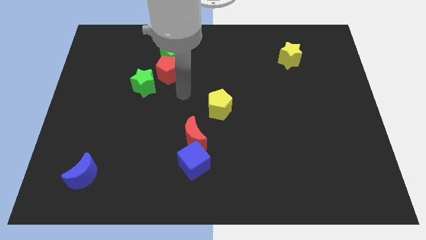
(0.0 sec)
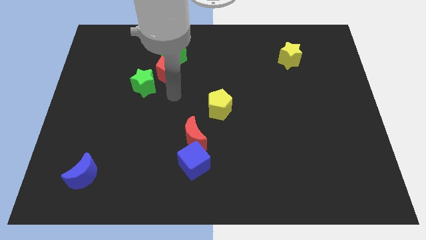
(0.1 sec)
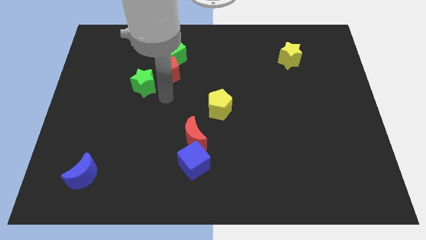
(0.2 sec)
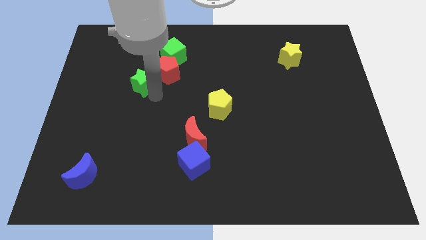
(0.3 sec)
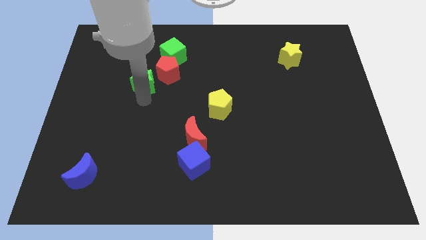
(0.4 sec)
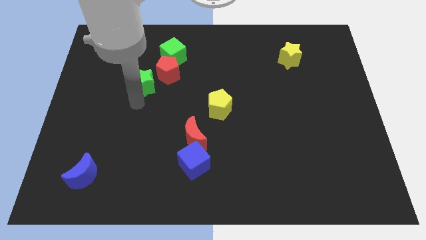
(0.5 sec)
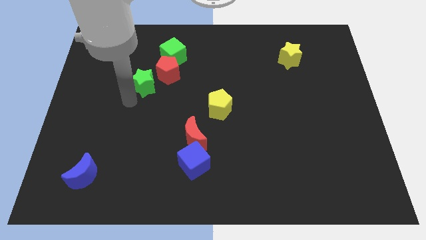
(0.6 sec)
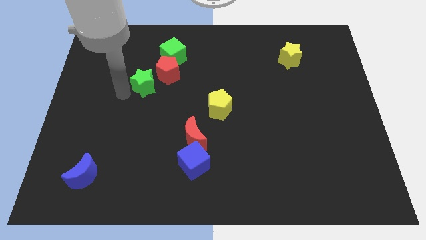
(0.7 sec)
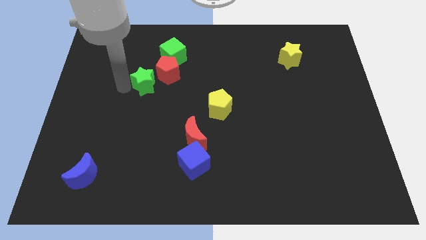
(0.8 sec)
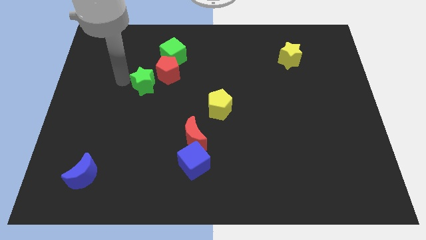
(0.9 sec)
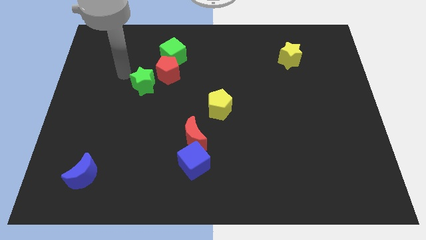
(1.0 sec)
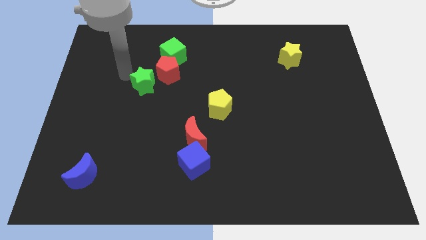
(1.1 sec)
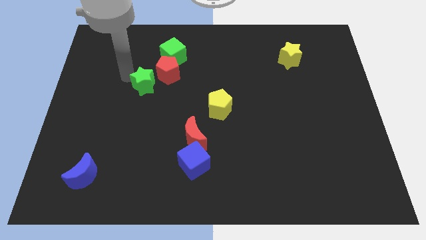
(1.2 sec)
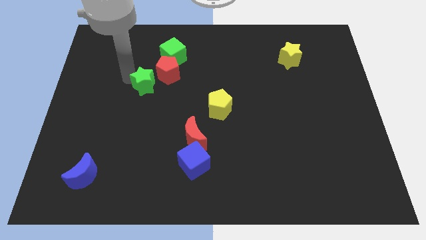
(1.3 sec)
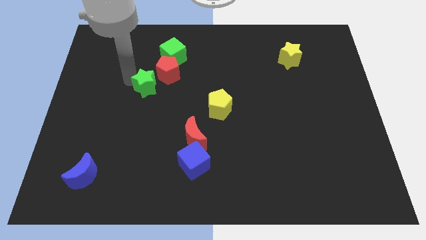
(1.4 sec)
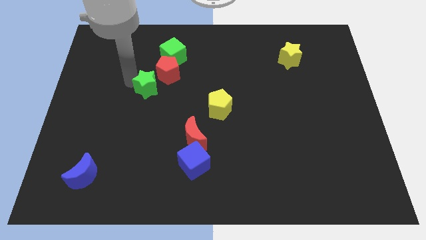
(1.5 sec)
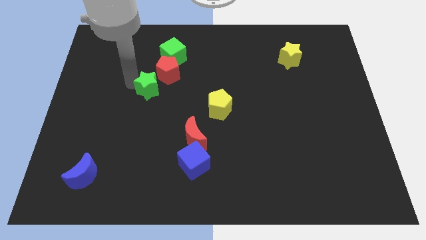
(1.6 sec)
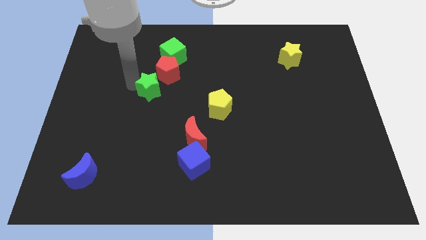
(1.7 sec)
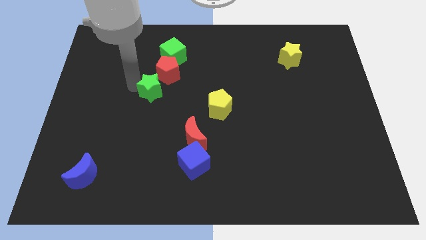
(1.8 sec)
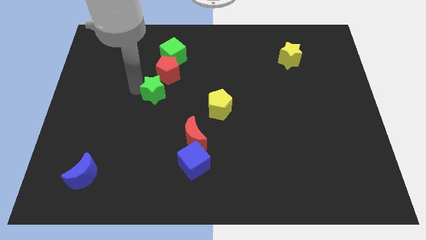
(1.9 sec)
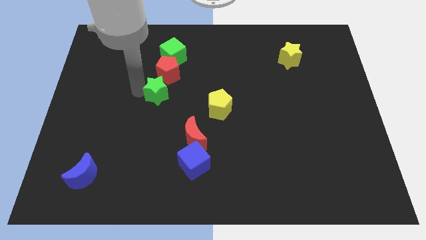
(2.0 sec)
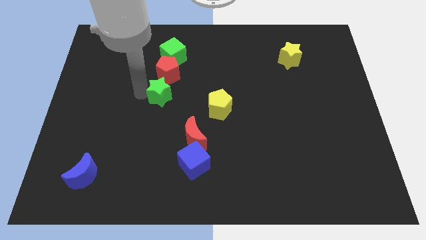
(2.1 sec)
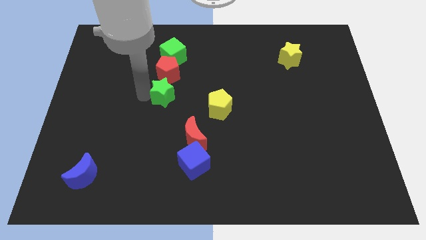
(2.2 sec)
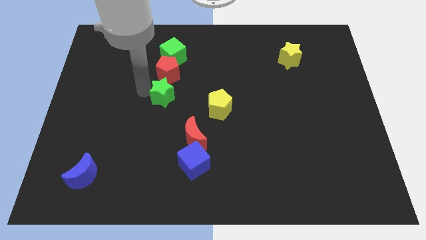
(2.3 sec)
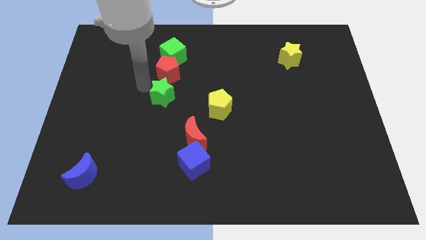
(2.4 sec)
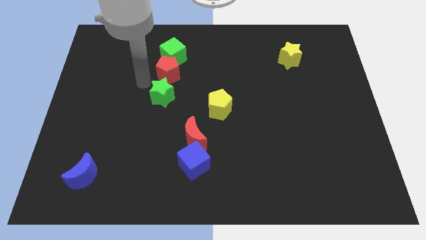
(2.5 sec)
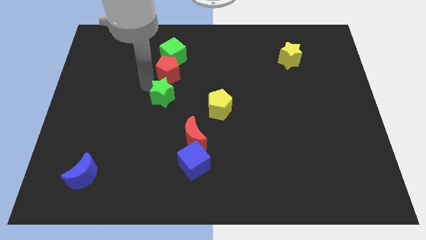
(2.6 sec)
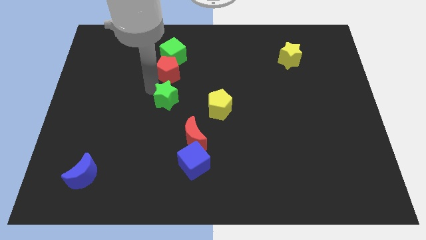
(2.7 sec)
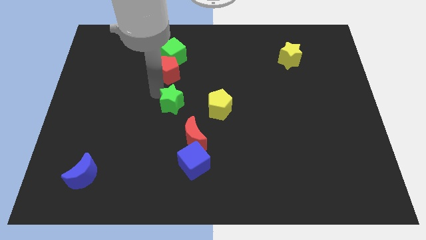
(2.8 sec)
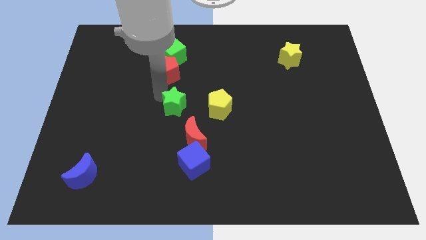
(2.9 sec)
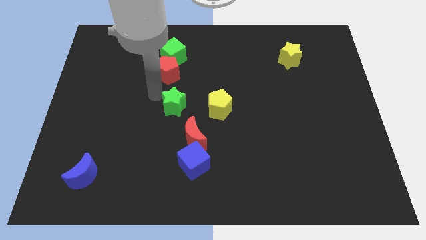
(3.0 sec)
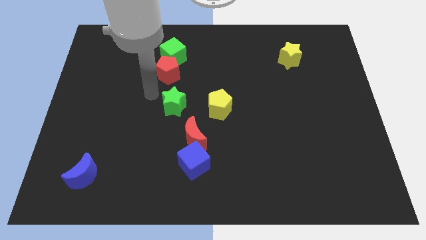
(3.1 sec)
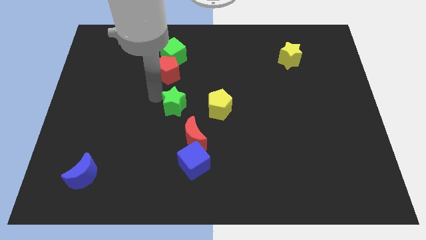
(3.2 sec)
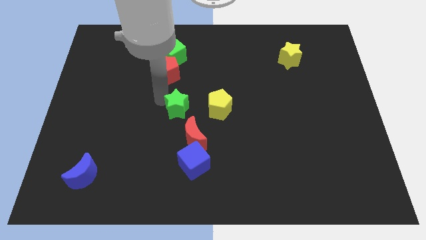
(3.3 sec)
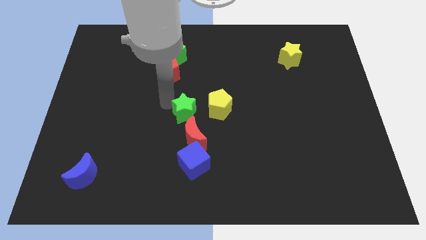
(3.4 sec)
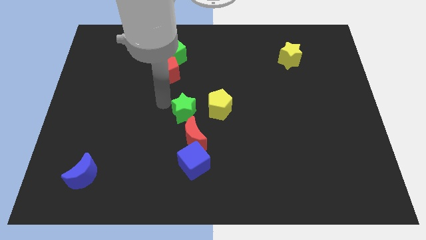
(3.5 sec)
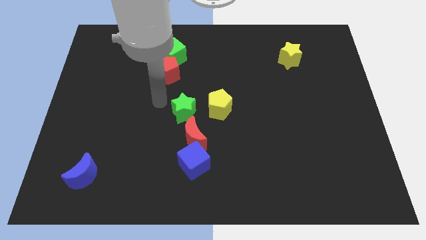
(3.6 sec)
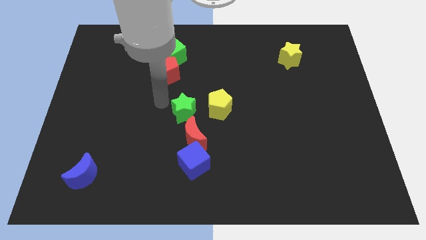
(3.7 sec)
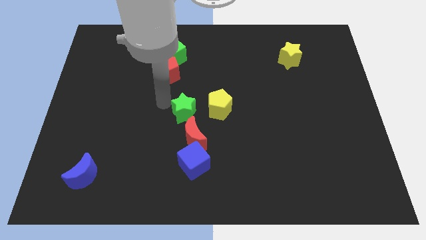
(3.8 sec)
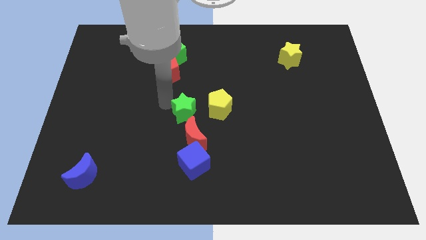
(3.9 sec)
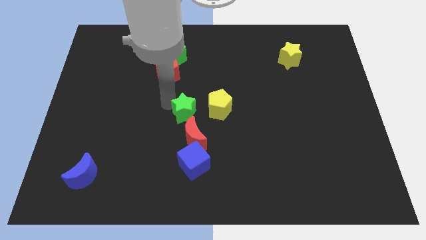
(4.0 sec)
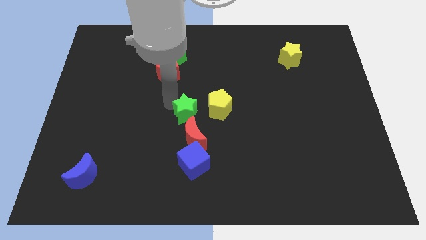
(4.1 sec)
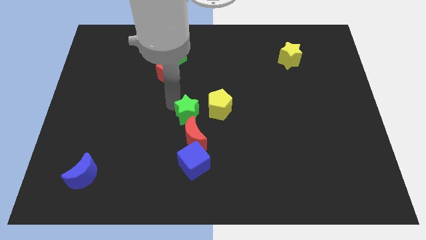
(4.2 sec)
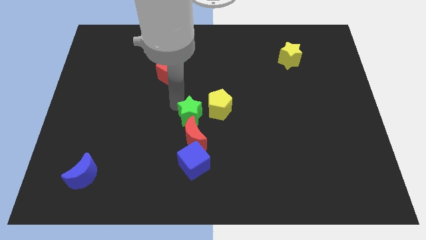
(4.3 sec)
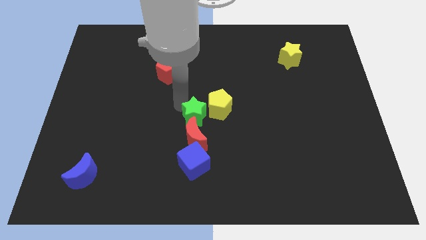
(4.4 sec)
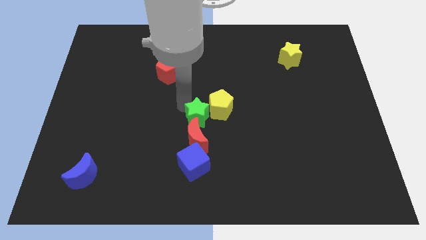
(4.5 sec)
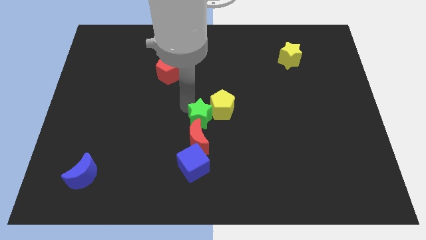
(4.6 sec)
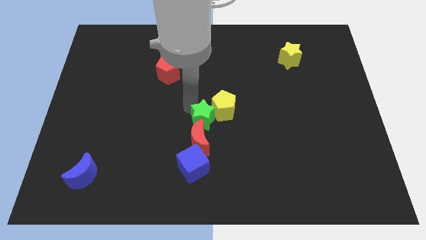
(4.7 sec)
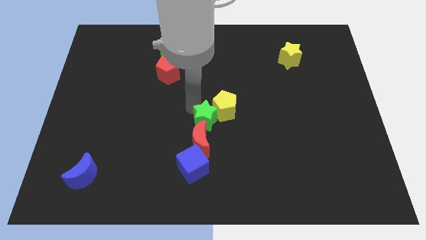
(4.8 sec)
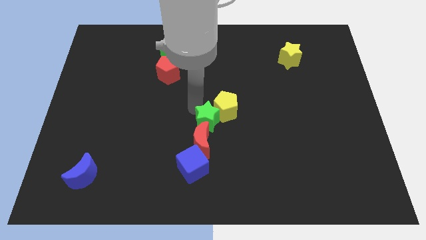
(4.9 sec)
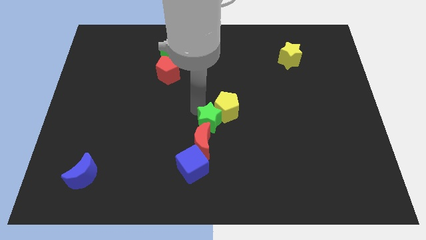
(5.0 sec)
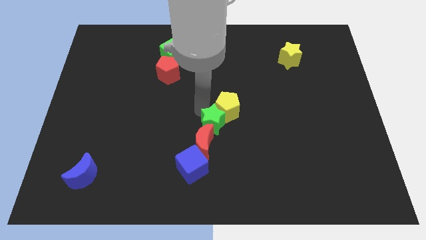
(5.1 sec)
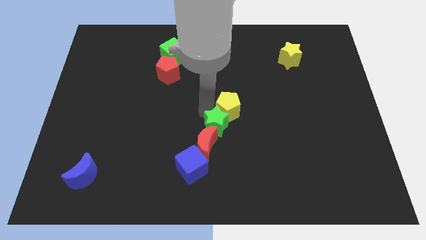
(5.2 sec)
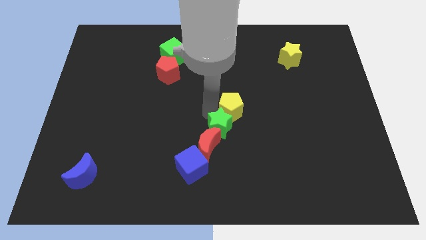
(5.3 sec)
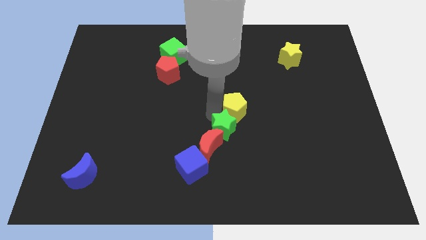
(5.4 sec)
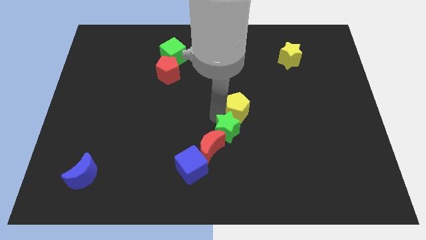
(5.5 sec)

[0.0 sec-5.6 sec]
put the green star just right of the red moon

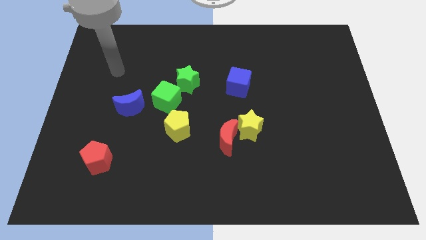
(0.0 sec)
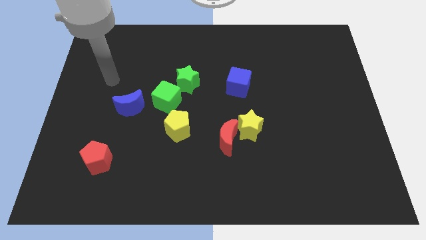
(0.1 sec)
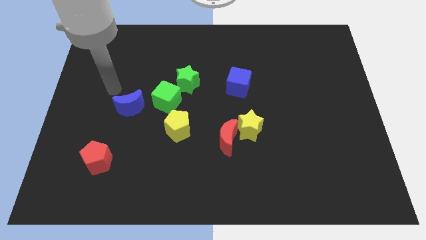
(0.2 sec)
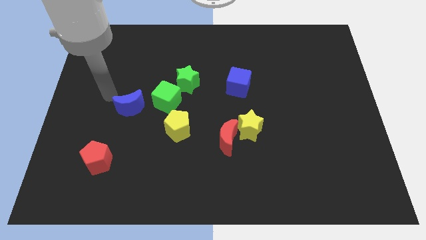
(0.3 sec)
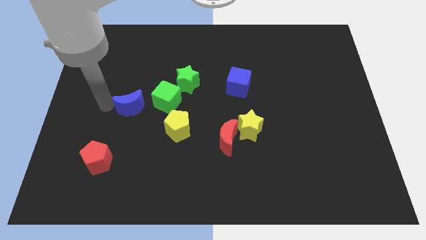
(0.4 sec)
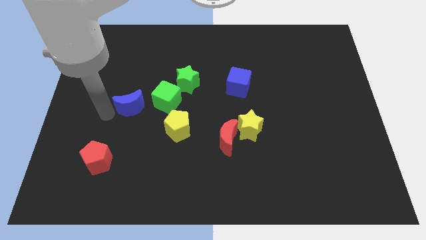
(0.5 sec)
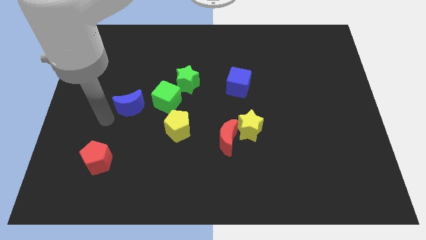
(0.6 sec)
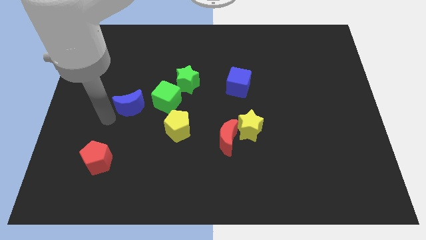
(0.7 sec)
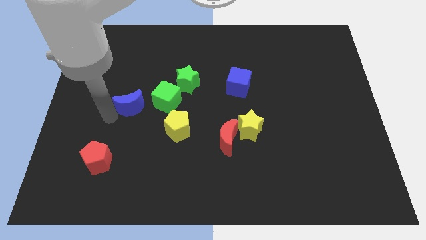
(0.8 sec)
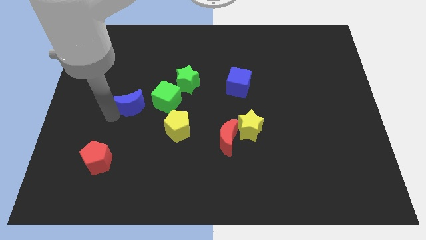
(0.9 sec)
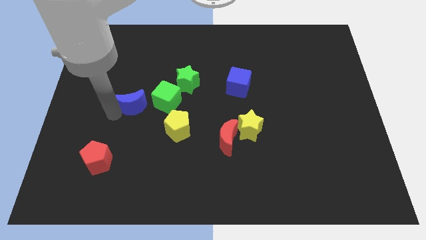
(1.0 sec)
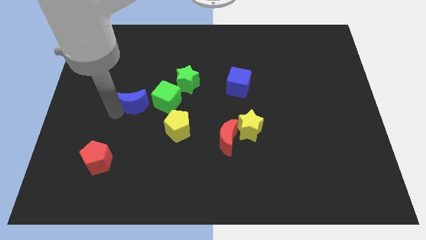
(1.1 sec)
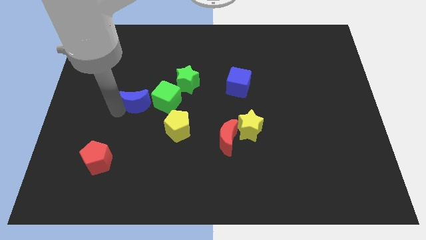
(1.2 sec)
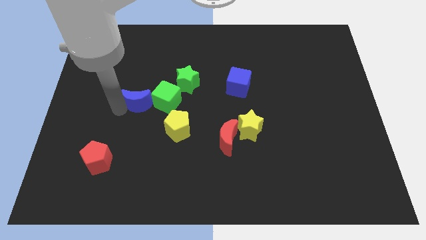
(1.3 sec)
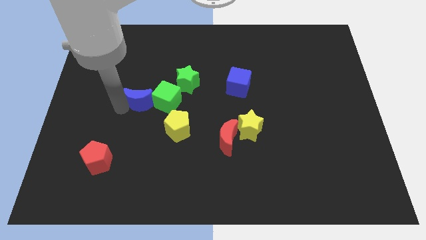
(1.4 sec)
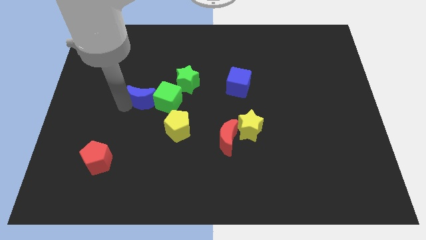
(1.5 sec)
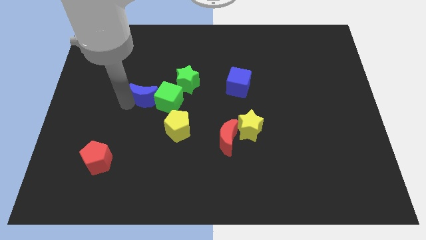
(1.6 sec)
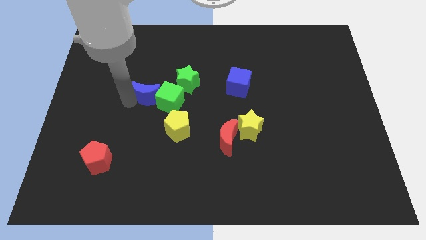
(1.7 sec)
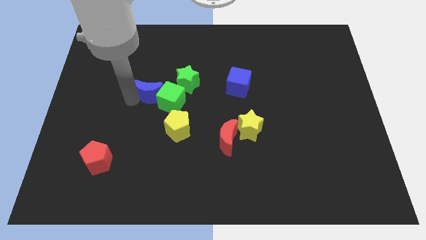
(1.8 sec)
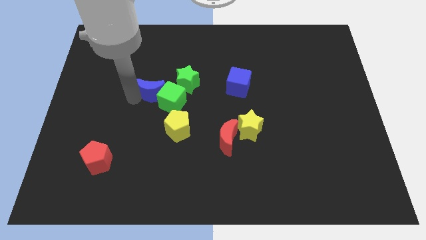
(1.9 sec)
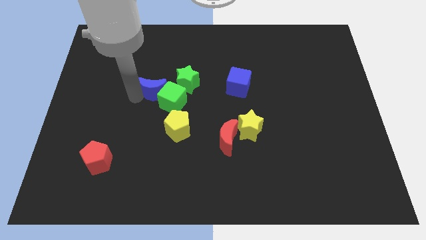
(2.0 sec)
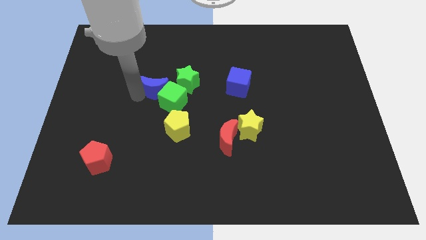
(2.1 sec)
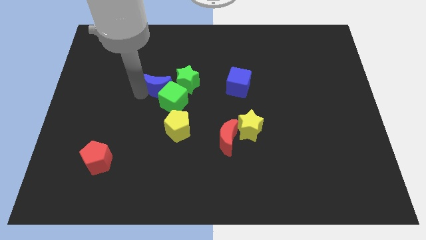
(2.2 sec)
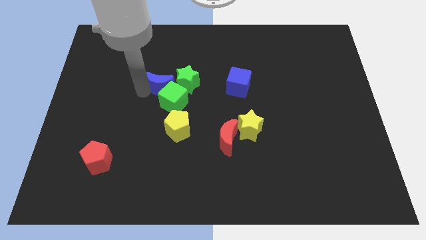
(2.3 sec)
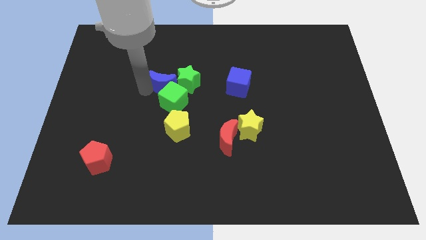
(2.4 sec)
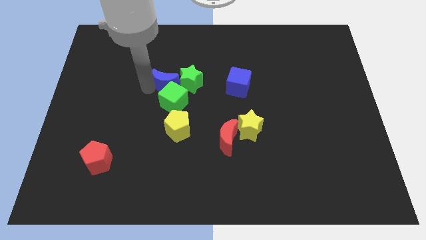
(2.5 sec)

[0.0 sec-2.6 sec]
put the blue moon diagonally up and to the left of the green star
